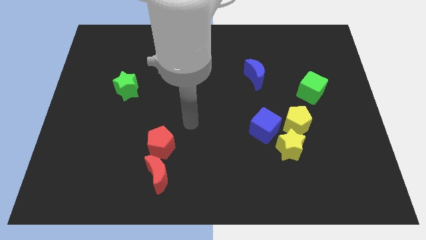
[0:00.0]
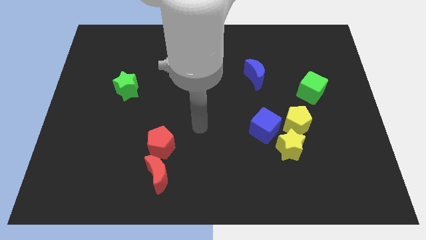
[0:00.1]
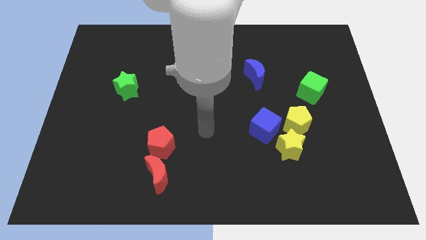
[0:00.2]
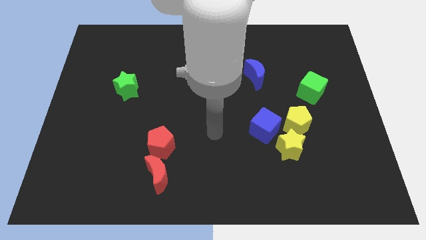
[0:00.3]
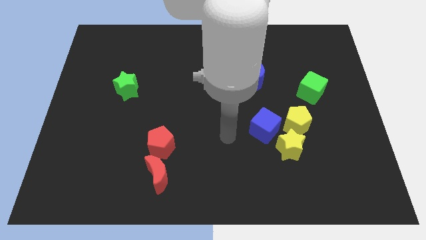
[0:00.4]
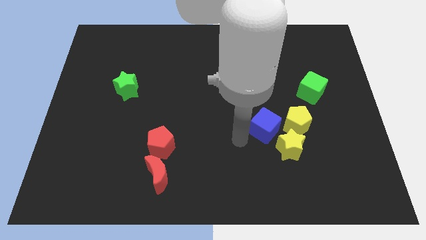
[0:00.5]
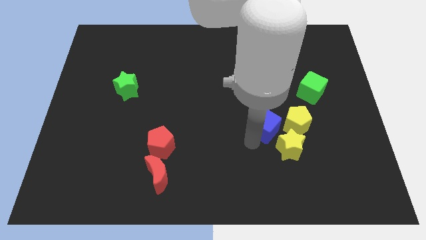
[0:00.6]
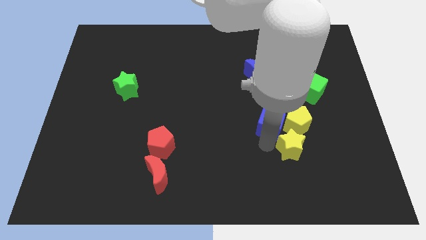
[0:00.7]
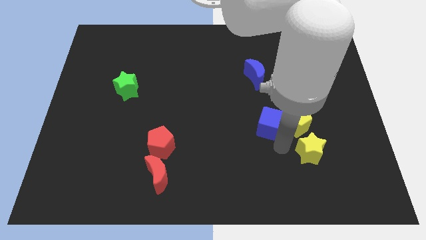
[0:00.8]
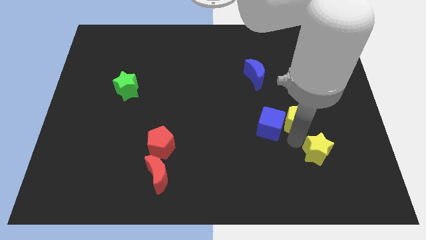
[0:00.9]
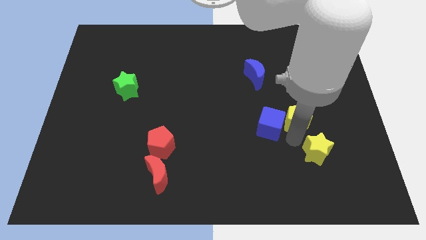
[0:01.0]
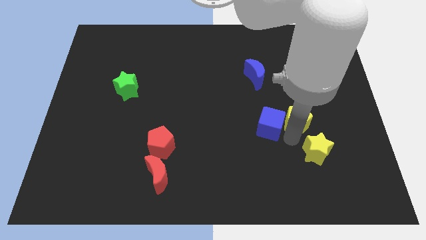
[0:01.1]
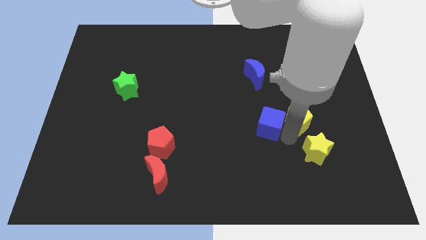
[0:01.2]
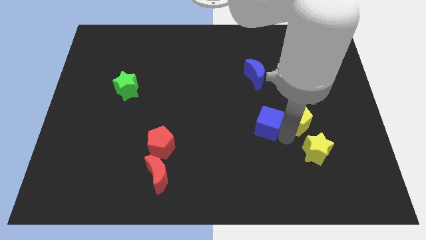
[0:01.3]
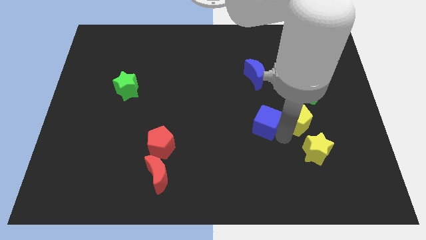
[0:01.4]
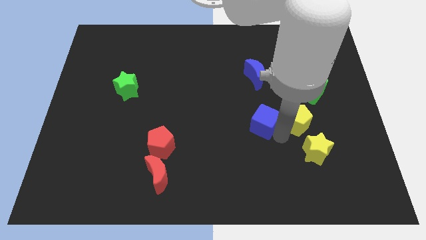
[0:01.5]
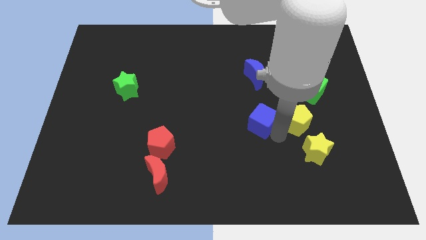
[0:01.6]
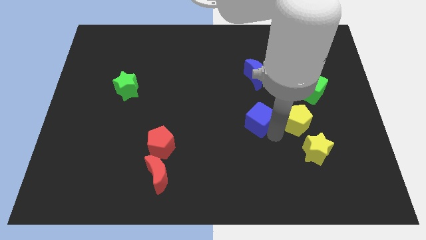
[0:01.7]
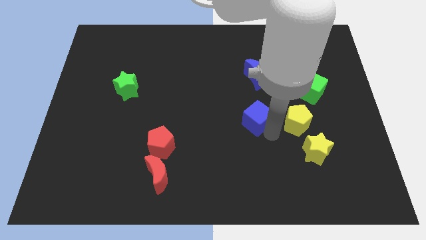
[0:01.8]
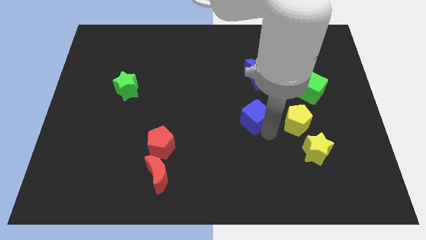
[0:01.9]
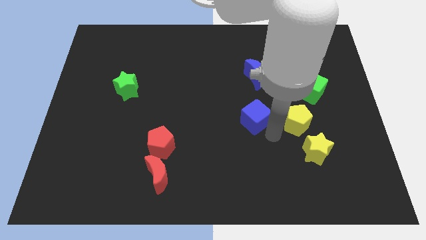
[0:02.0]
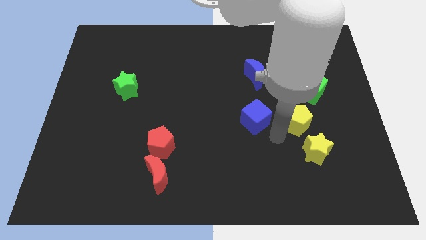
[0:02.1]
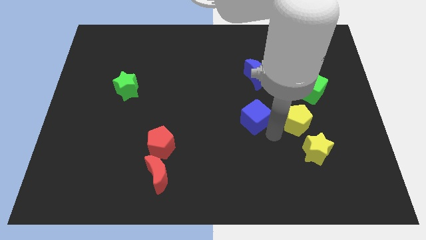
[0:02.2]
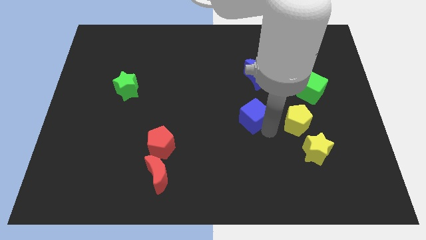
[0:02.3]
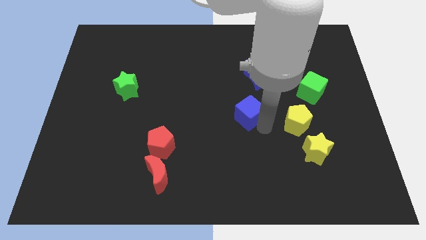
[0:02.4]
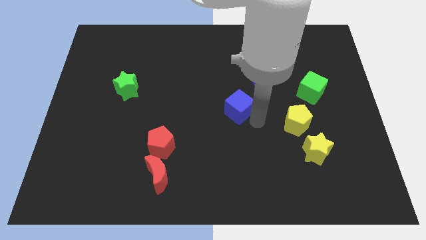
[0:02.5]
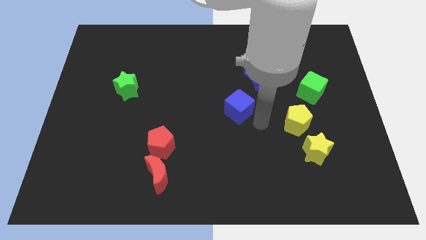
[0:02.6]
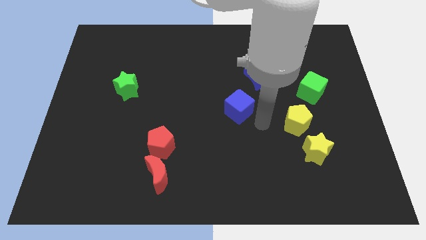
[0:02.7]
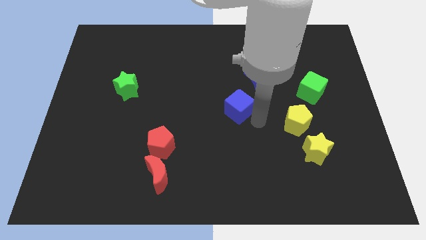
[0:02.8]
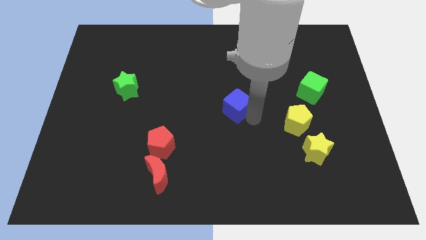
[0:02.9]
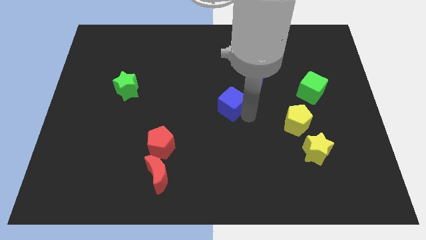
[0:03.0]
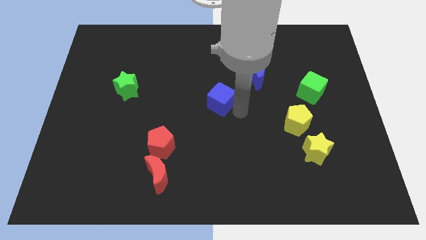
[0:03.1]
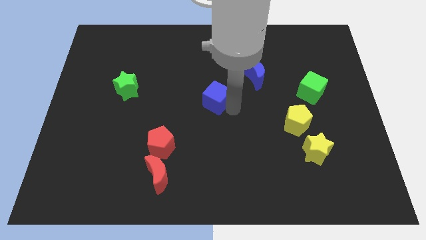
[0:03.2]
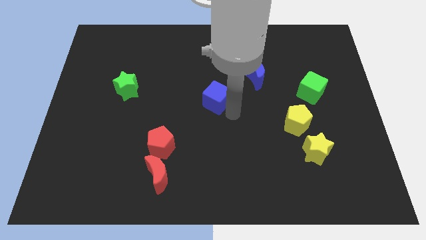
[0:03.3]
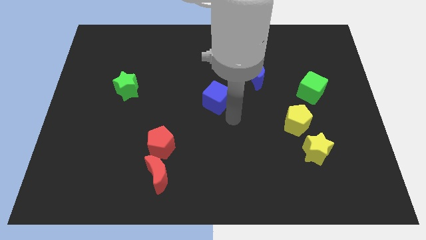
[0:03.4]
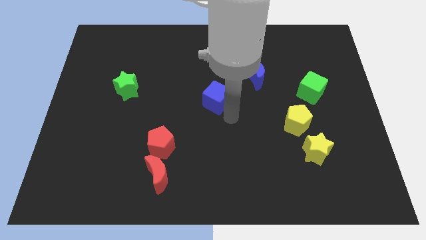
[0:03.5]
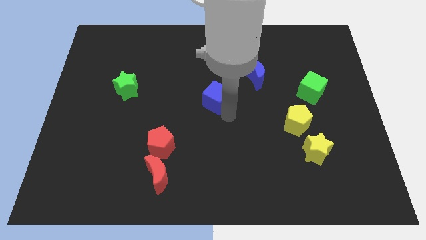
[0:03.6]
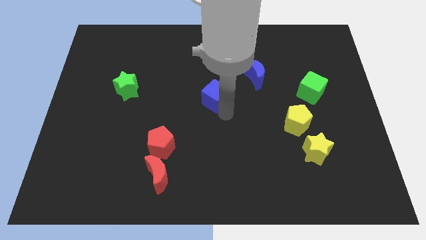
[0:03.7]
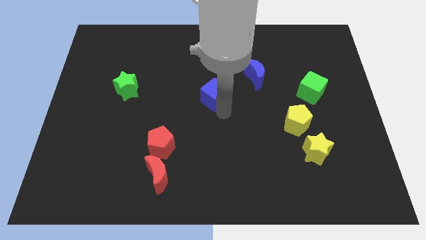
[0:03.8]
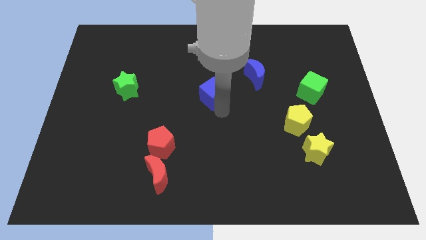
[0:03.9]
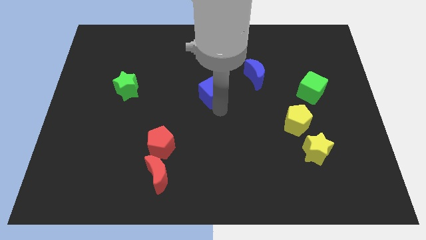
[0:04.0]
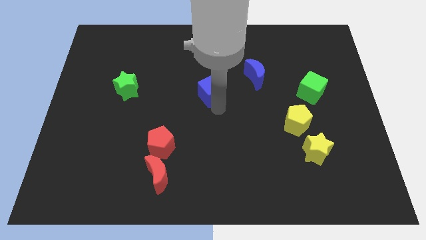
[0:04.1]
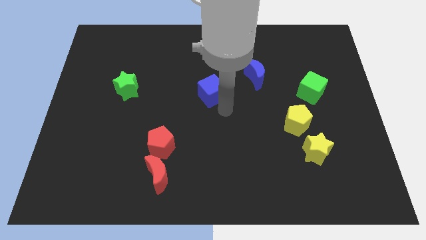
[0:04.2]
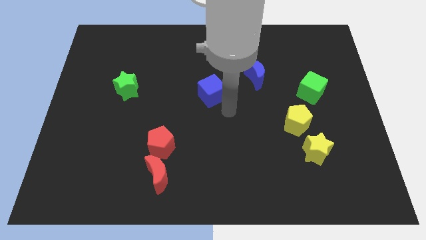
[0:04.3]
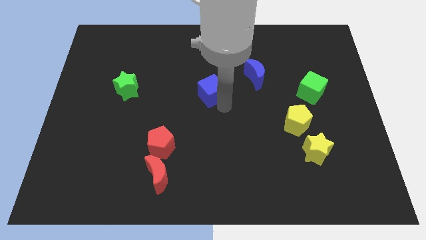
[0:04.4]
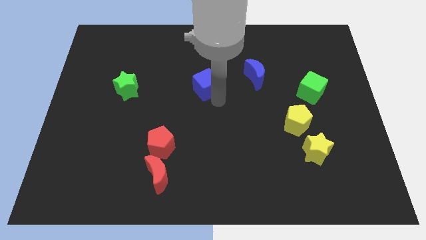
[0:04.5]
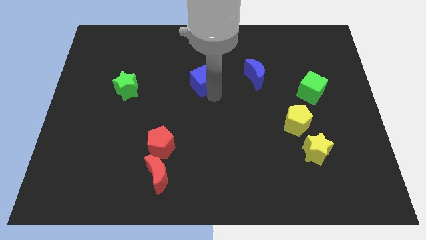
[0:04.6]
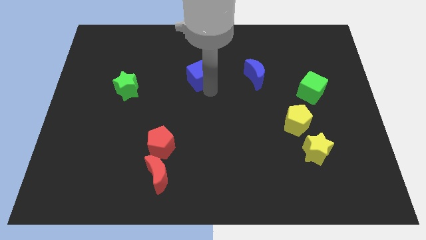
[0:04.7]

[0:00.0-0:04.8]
slide the blue cube up and to the left

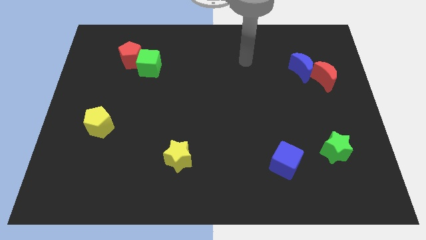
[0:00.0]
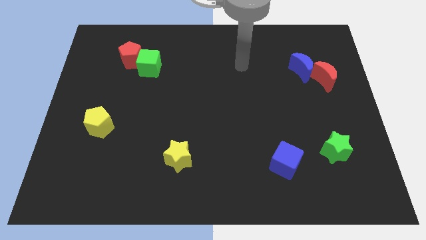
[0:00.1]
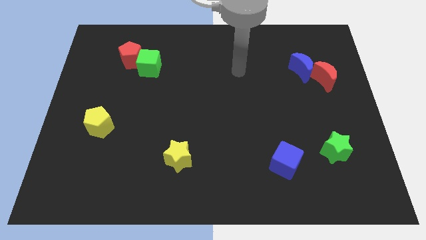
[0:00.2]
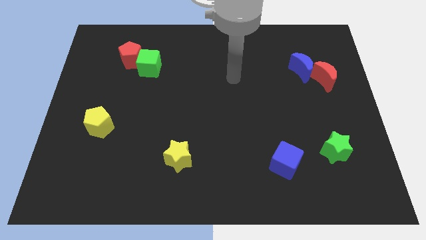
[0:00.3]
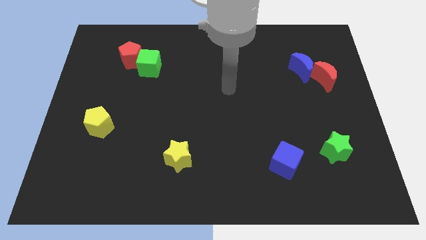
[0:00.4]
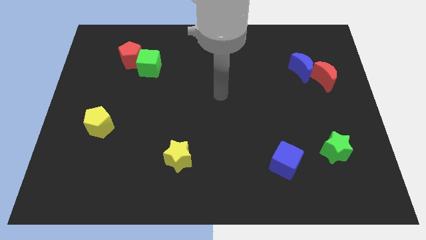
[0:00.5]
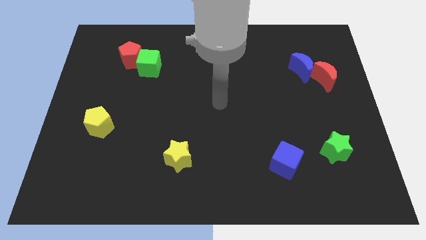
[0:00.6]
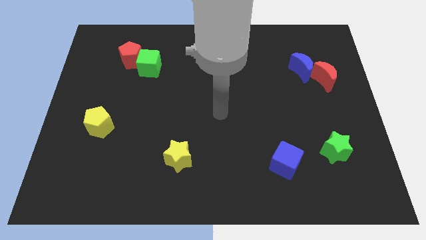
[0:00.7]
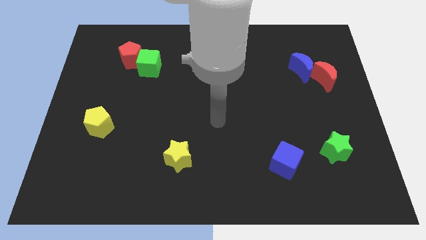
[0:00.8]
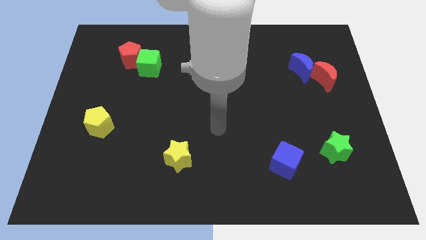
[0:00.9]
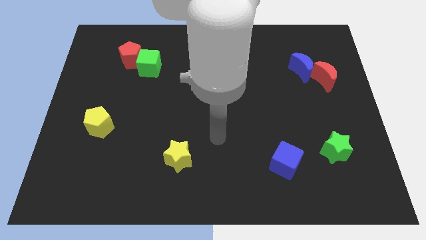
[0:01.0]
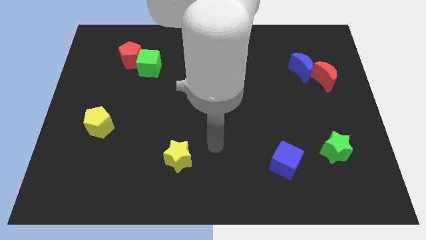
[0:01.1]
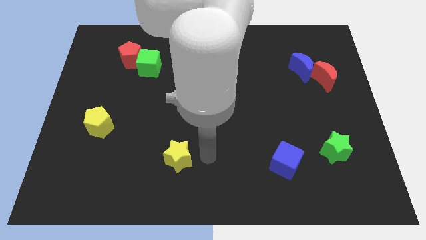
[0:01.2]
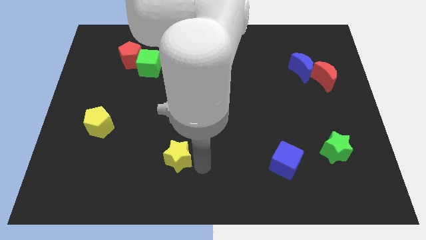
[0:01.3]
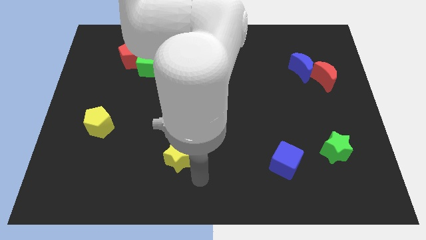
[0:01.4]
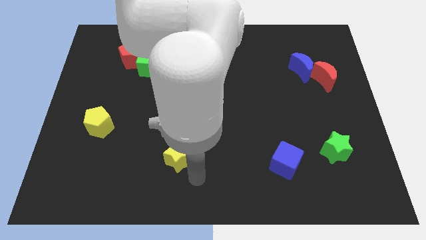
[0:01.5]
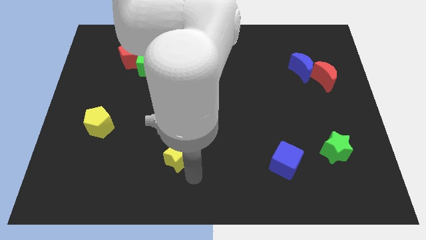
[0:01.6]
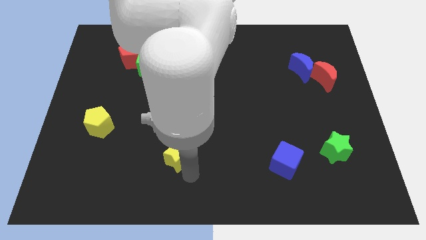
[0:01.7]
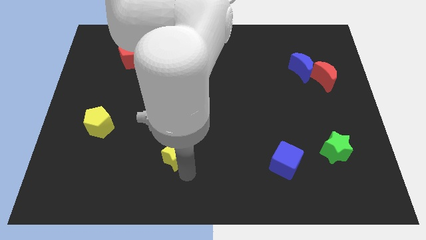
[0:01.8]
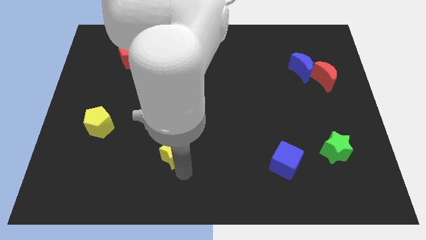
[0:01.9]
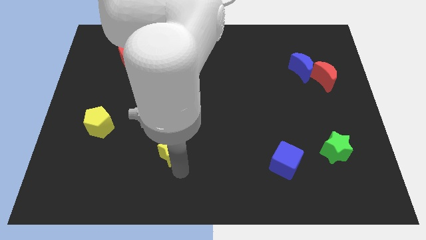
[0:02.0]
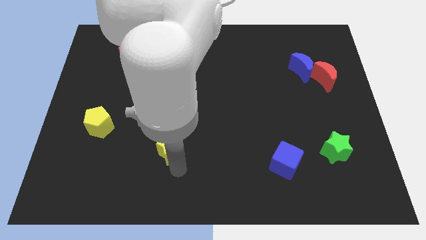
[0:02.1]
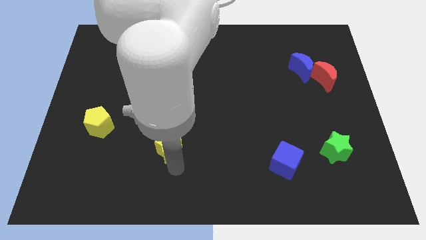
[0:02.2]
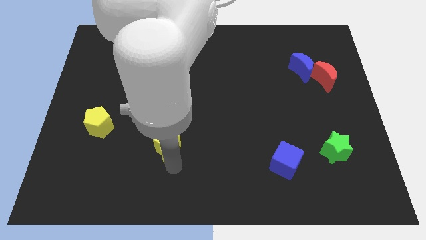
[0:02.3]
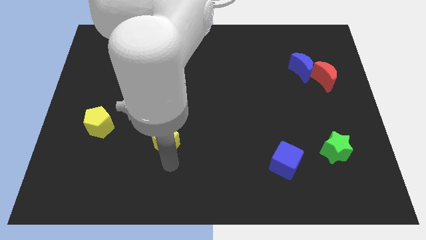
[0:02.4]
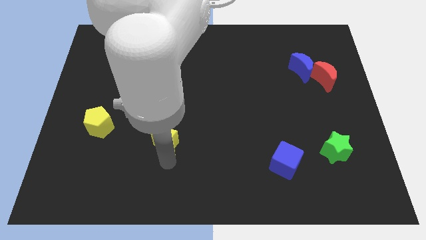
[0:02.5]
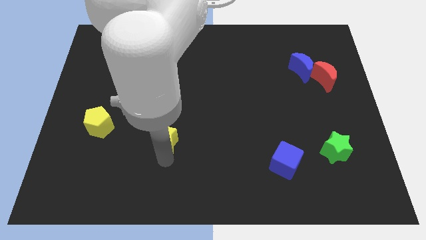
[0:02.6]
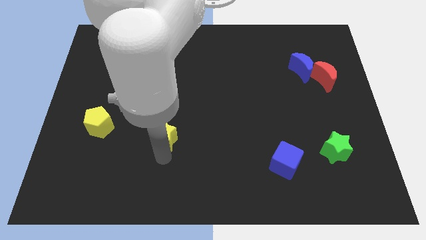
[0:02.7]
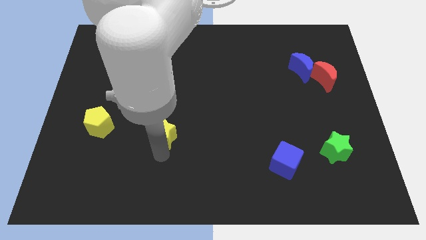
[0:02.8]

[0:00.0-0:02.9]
push the yellow star somewhat upwards and to the left

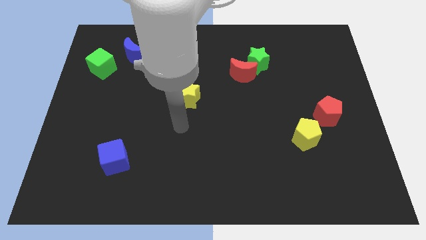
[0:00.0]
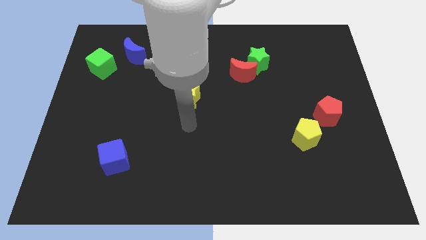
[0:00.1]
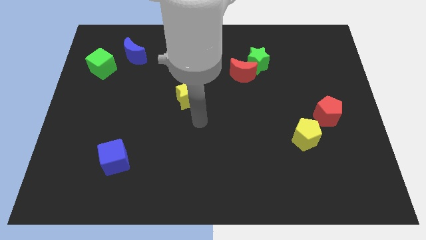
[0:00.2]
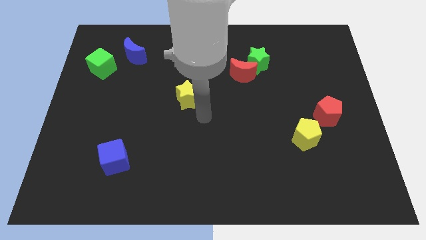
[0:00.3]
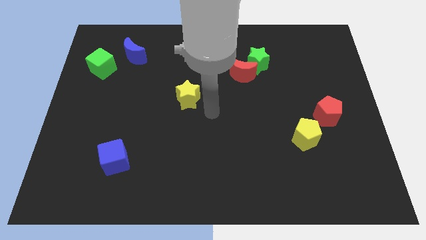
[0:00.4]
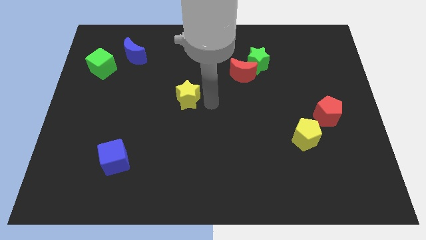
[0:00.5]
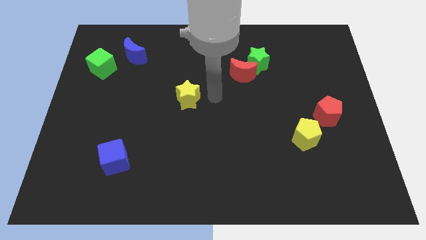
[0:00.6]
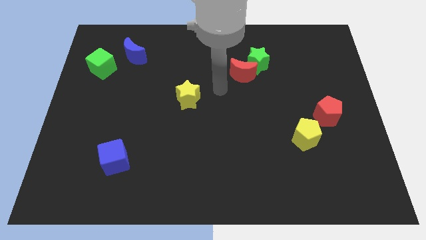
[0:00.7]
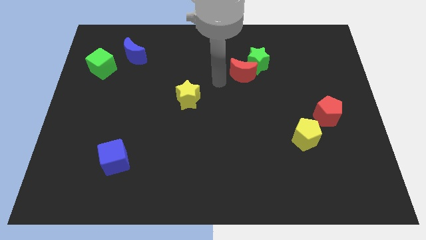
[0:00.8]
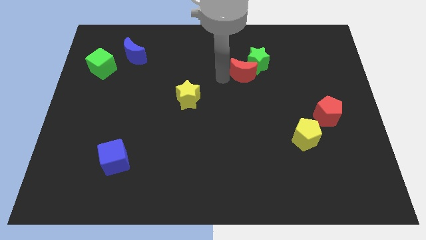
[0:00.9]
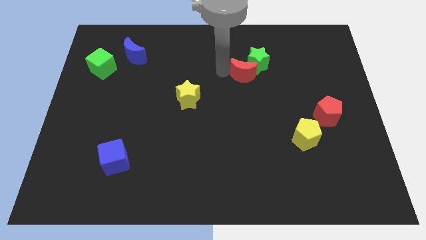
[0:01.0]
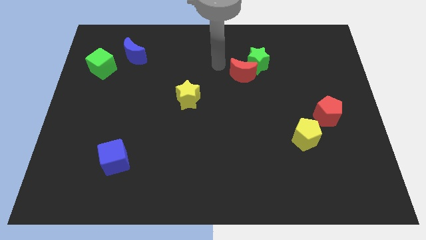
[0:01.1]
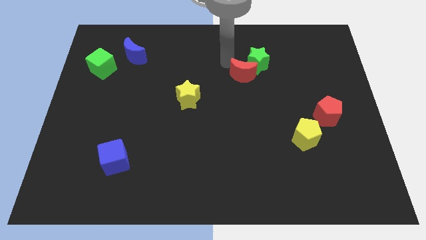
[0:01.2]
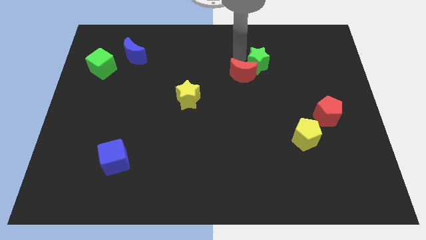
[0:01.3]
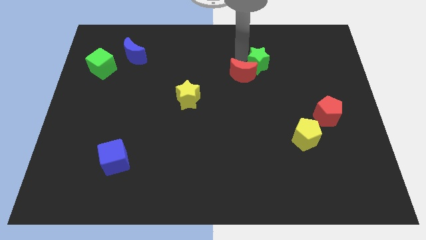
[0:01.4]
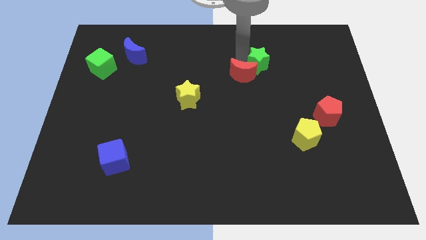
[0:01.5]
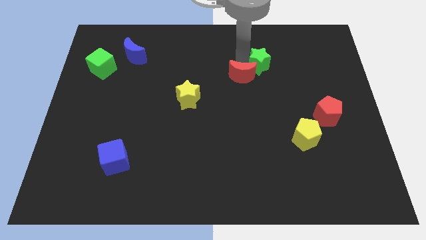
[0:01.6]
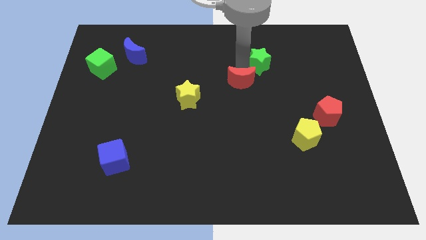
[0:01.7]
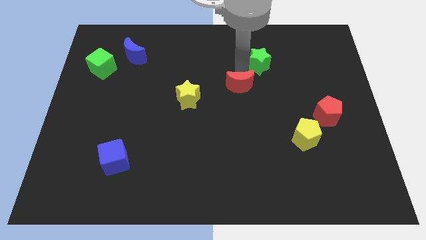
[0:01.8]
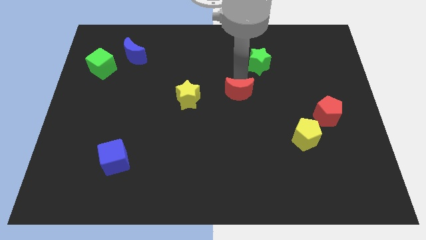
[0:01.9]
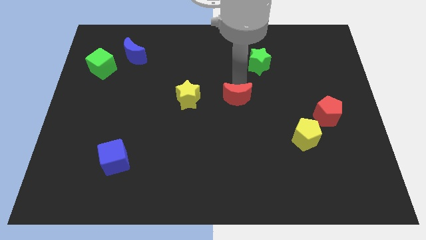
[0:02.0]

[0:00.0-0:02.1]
slightly move the red moon downwards
